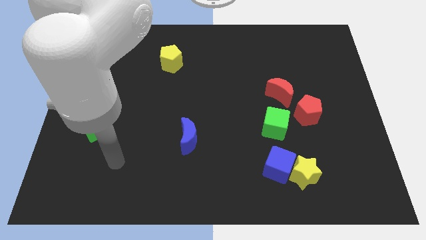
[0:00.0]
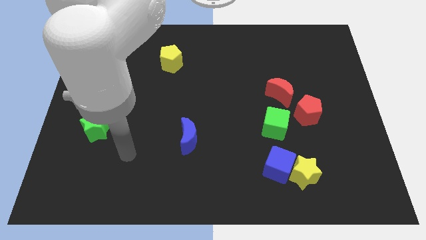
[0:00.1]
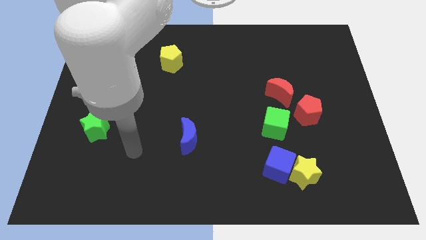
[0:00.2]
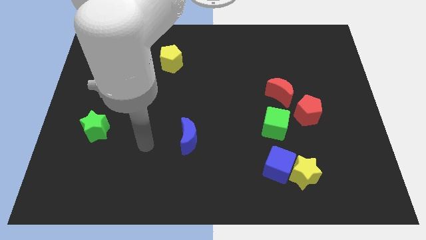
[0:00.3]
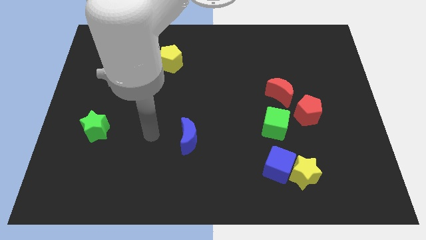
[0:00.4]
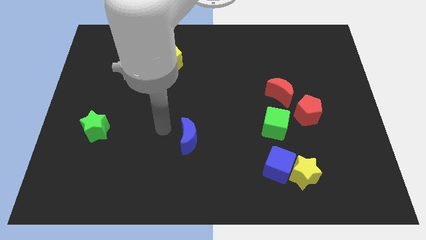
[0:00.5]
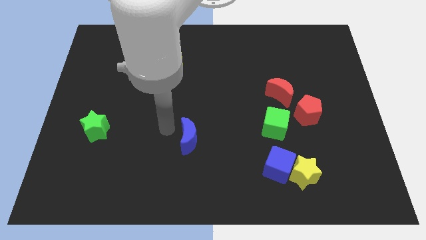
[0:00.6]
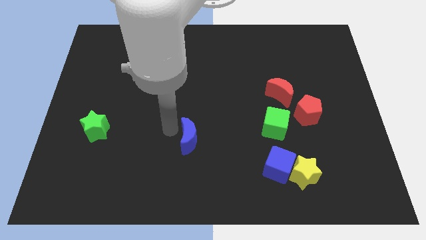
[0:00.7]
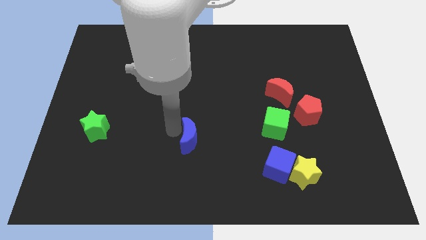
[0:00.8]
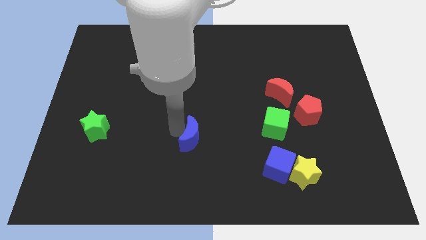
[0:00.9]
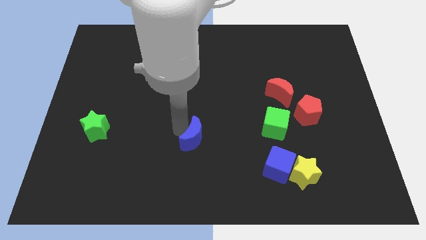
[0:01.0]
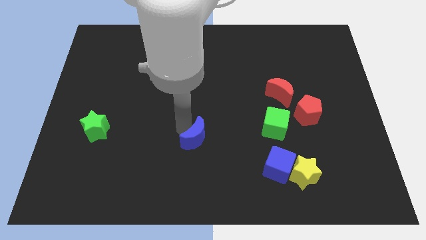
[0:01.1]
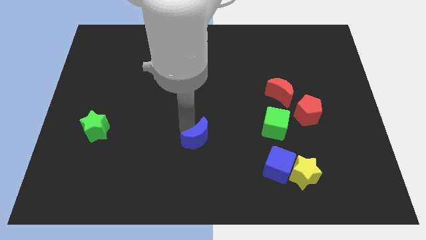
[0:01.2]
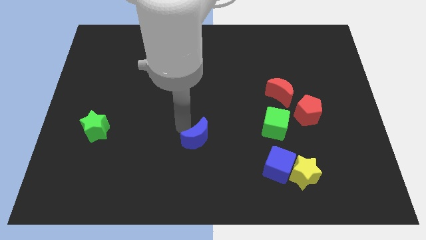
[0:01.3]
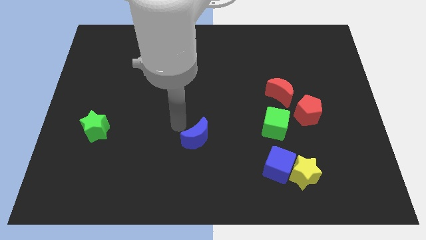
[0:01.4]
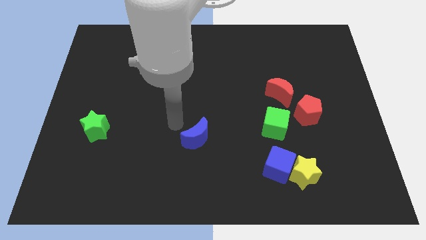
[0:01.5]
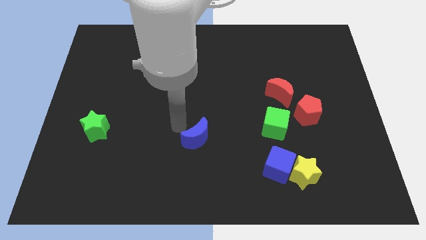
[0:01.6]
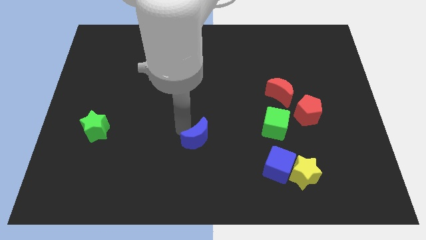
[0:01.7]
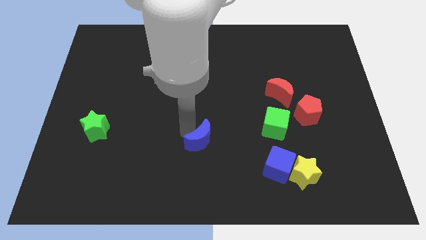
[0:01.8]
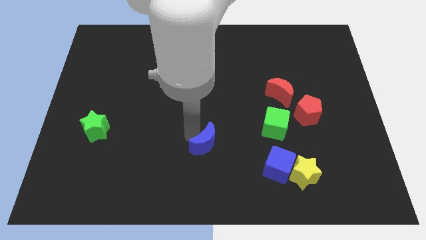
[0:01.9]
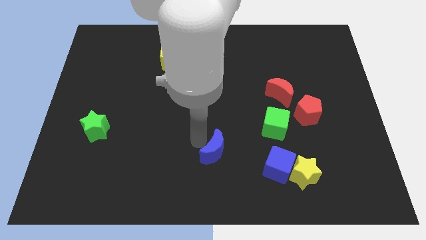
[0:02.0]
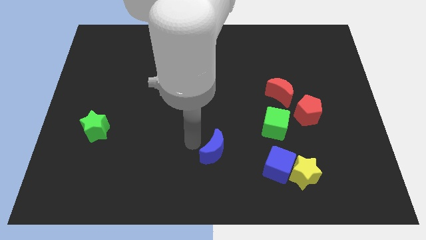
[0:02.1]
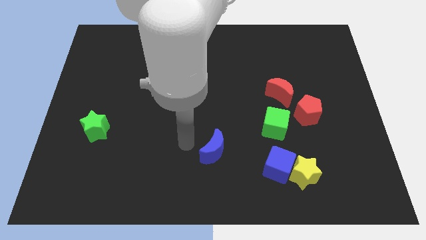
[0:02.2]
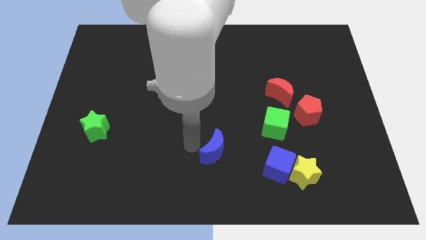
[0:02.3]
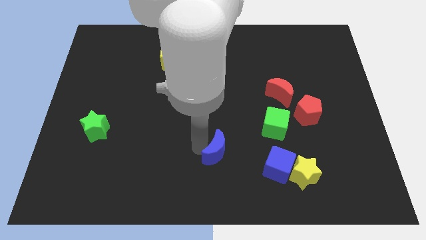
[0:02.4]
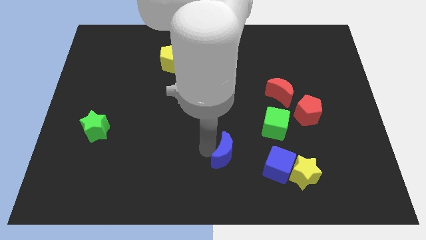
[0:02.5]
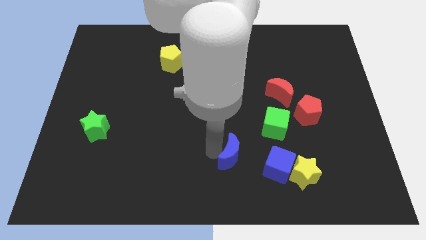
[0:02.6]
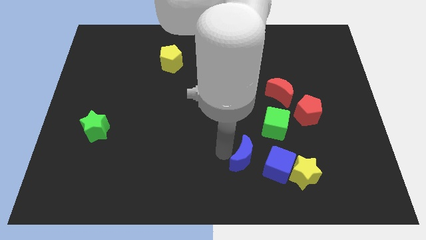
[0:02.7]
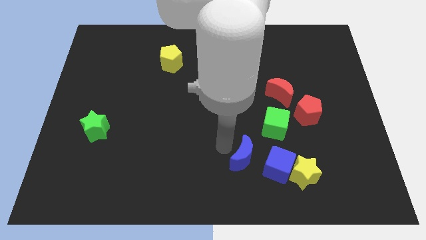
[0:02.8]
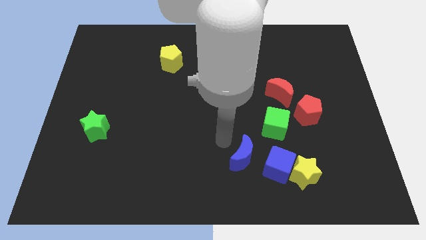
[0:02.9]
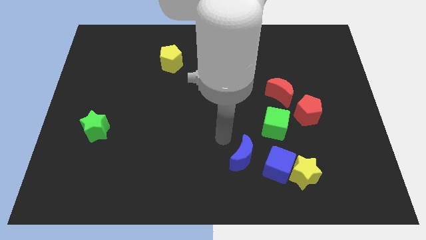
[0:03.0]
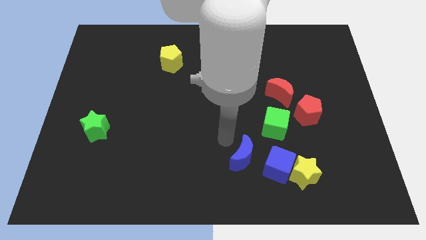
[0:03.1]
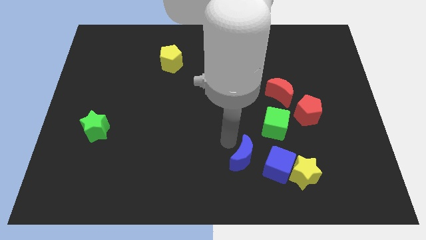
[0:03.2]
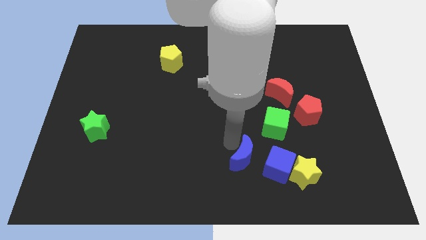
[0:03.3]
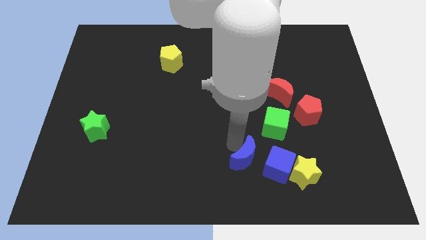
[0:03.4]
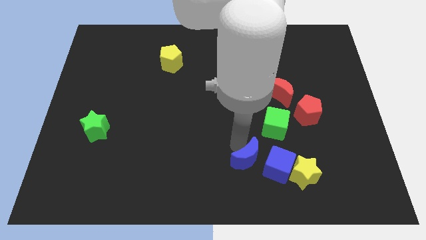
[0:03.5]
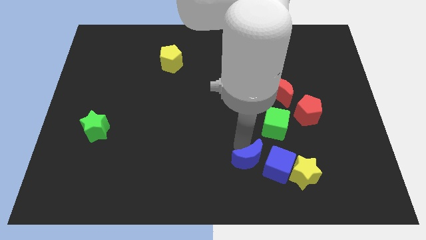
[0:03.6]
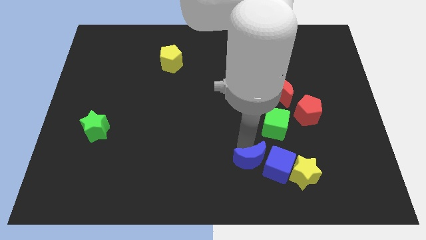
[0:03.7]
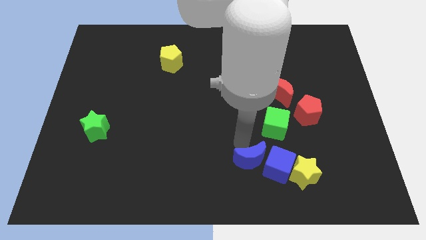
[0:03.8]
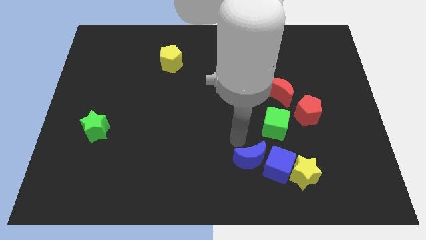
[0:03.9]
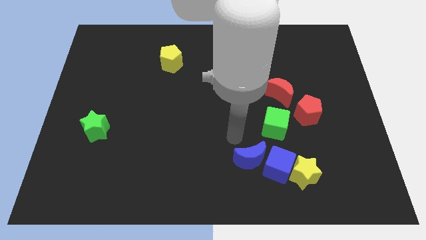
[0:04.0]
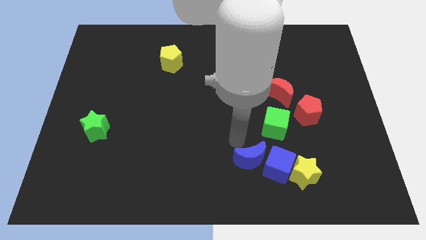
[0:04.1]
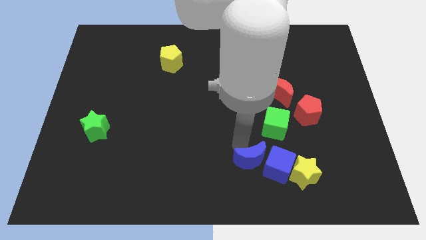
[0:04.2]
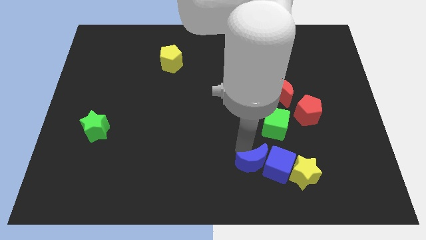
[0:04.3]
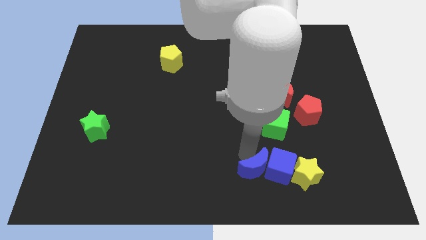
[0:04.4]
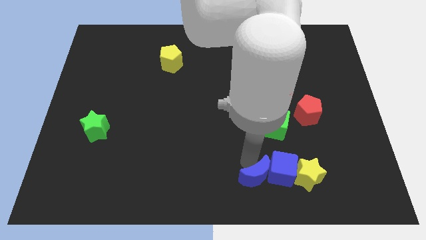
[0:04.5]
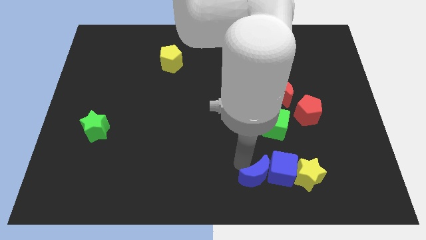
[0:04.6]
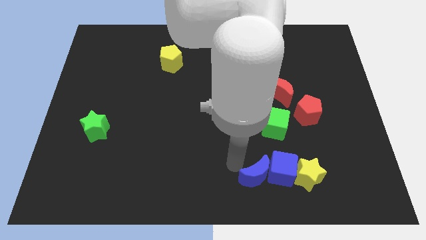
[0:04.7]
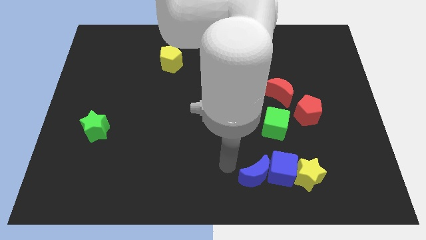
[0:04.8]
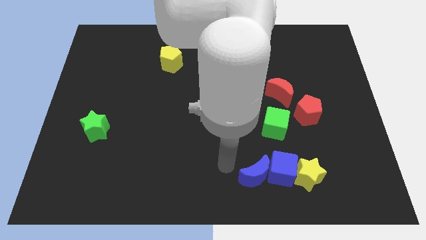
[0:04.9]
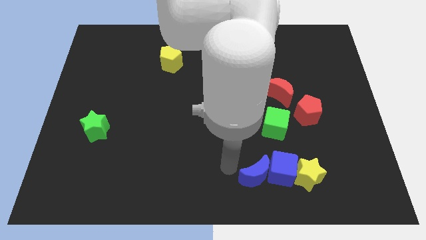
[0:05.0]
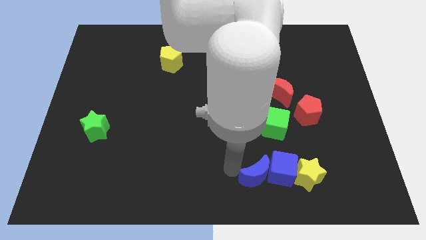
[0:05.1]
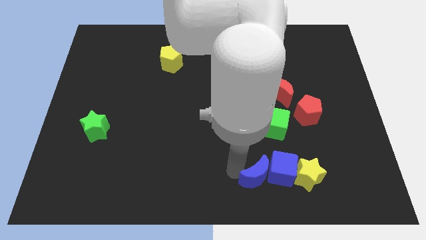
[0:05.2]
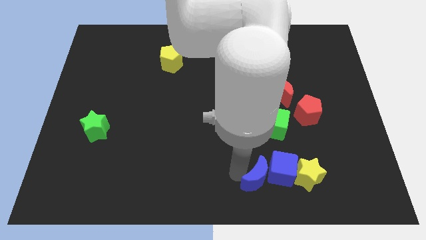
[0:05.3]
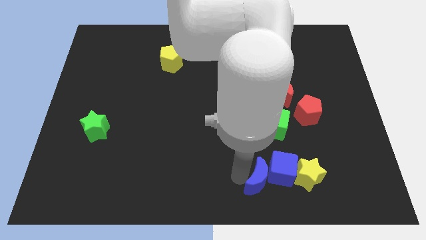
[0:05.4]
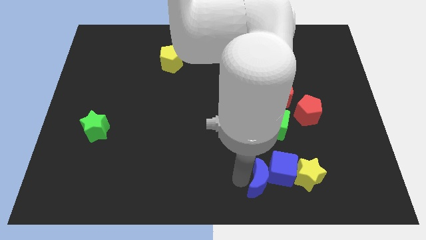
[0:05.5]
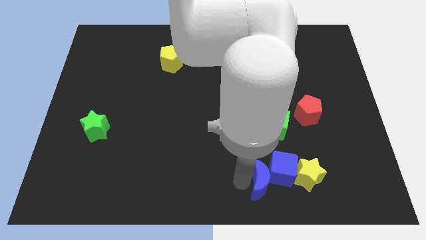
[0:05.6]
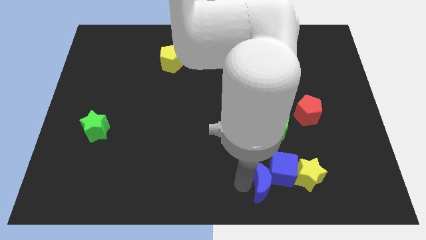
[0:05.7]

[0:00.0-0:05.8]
put the blue moon below the green cube
